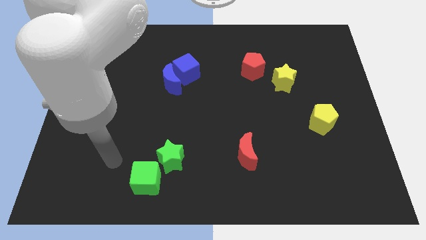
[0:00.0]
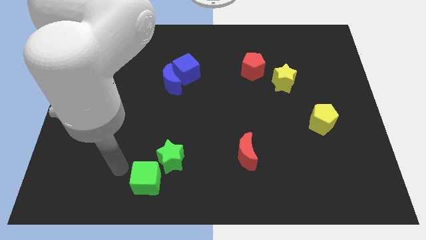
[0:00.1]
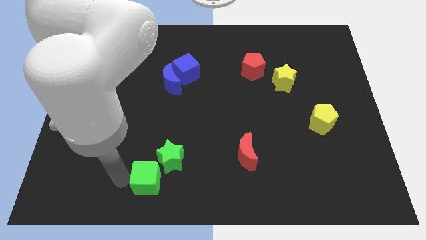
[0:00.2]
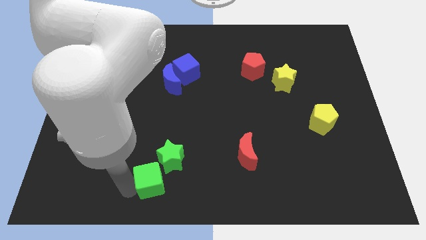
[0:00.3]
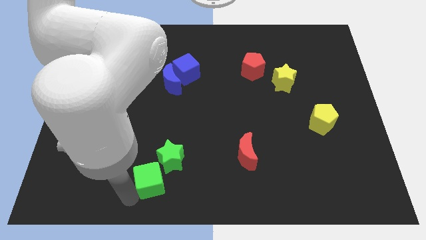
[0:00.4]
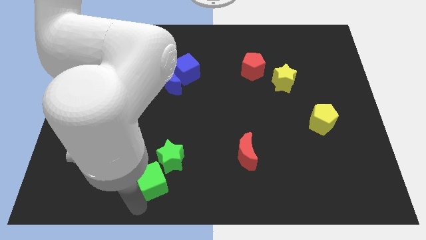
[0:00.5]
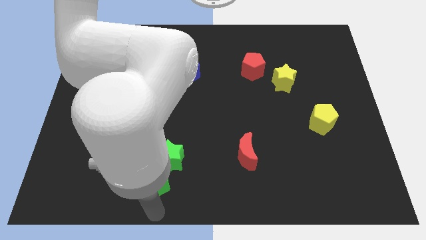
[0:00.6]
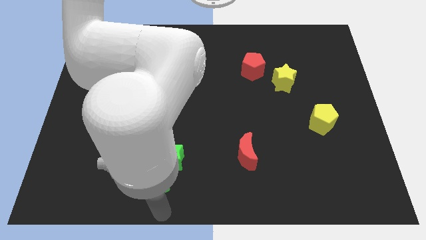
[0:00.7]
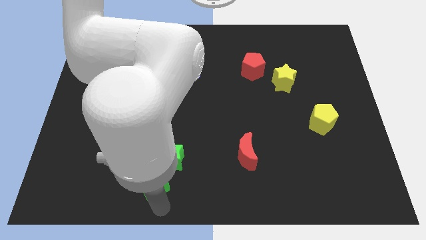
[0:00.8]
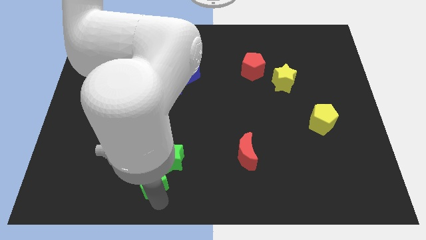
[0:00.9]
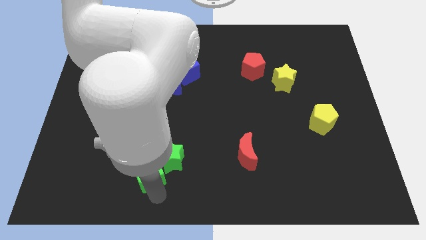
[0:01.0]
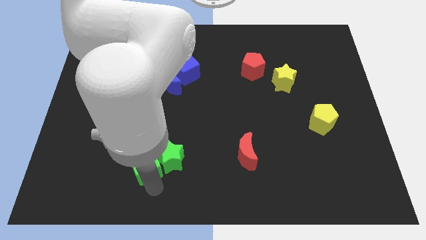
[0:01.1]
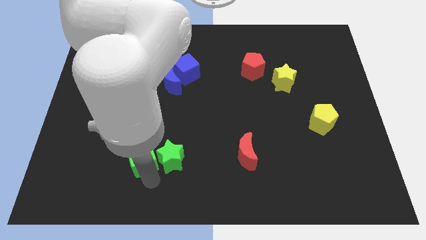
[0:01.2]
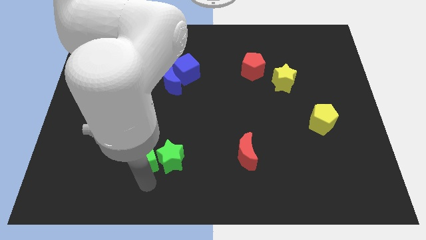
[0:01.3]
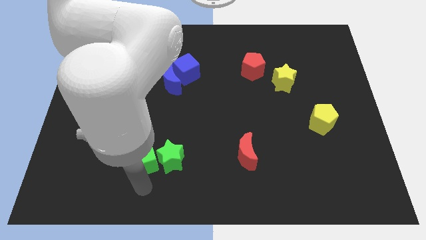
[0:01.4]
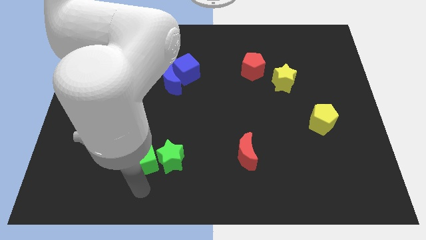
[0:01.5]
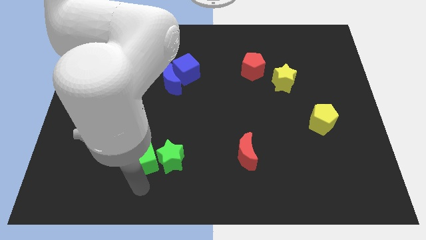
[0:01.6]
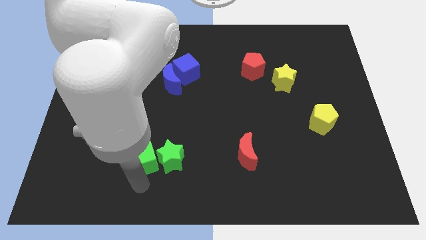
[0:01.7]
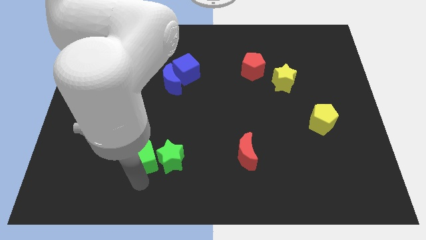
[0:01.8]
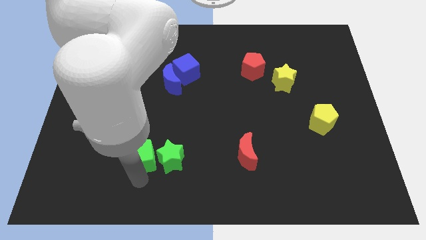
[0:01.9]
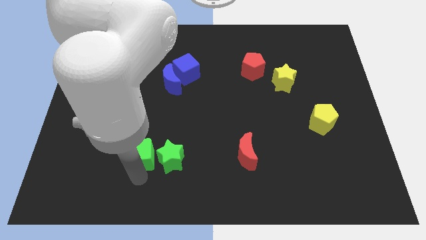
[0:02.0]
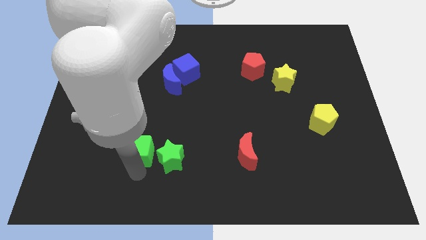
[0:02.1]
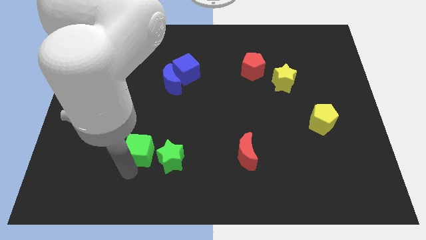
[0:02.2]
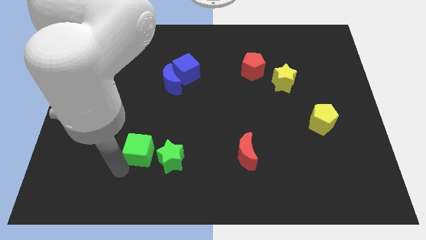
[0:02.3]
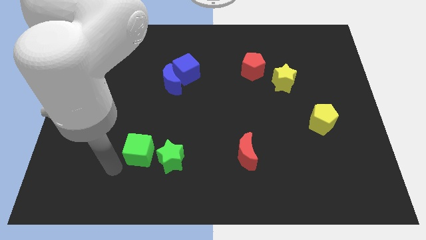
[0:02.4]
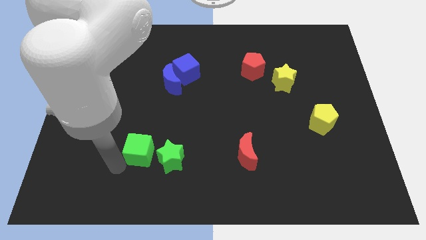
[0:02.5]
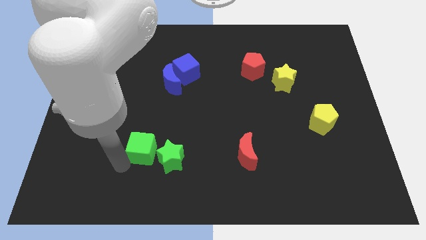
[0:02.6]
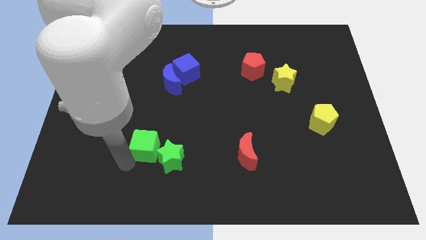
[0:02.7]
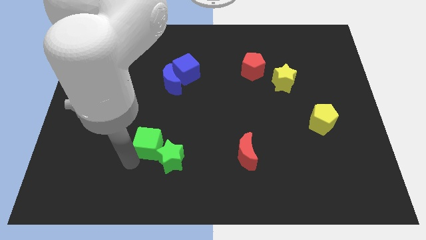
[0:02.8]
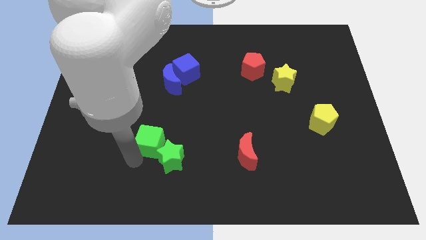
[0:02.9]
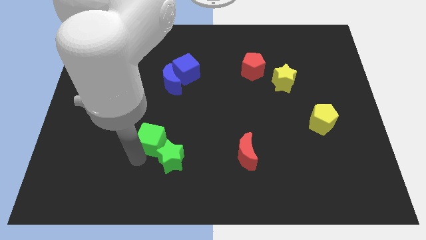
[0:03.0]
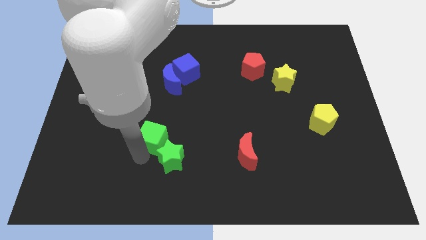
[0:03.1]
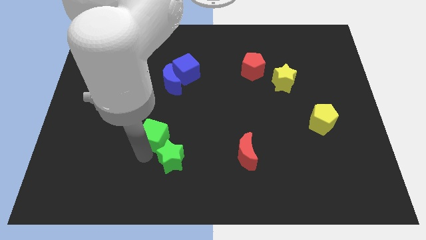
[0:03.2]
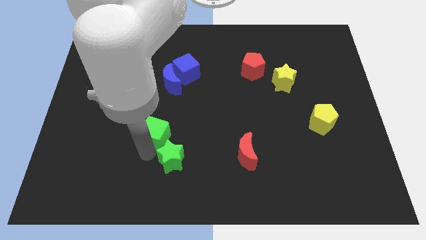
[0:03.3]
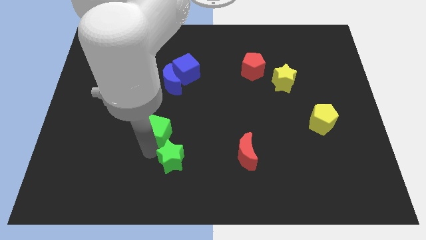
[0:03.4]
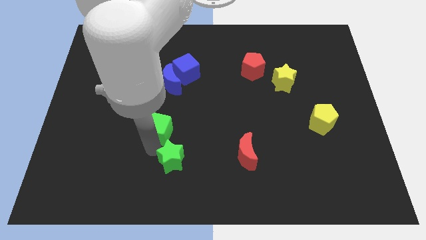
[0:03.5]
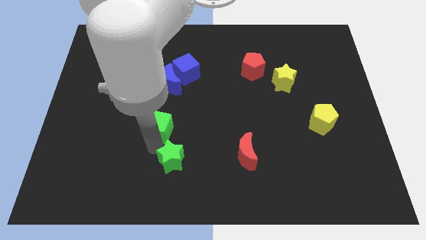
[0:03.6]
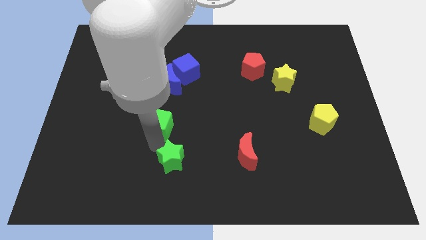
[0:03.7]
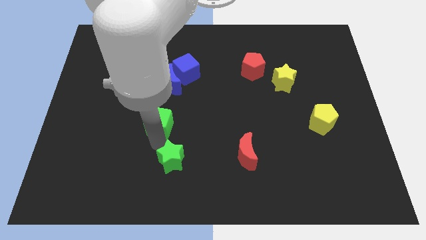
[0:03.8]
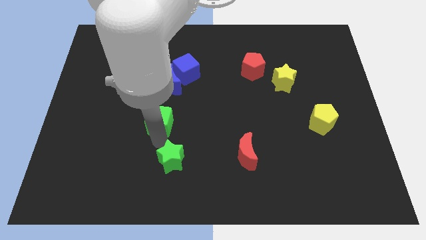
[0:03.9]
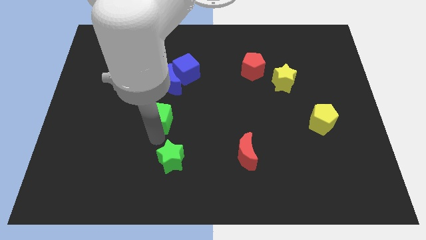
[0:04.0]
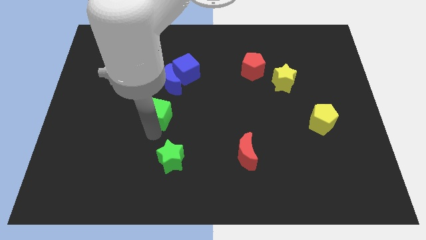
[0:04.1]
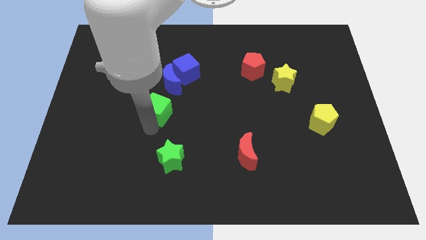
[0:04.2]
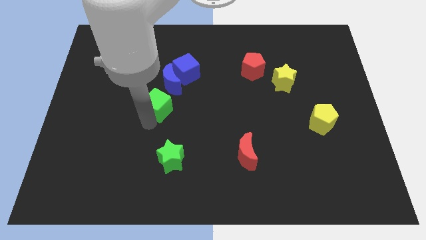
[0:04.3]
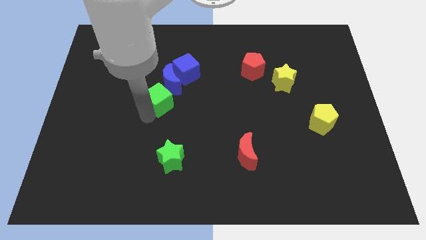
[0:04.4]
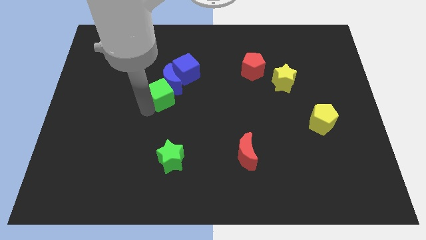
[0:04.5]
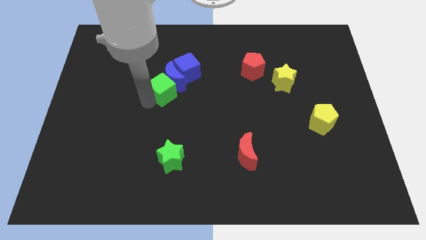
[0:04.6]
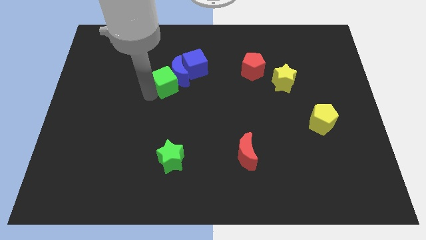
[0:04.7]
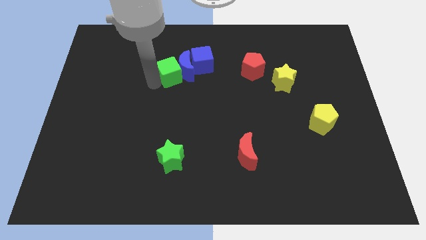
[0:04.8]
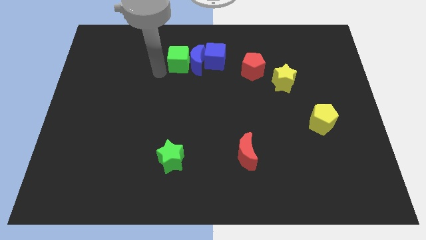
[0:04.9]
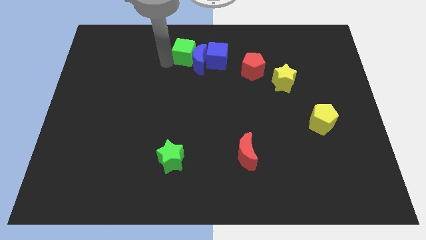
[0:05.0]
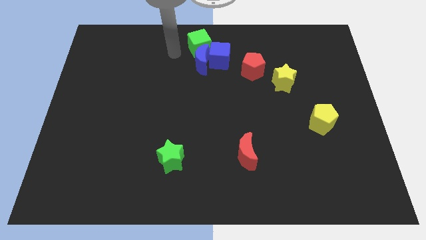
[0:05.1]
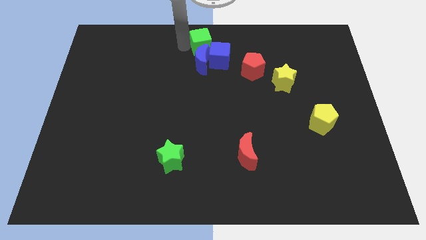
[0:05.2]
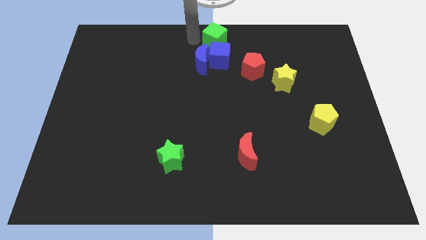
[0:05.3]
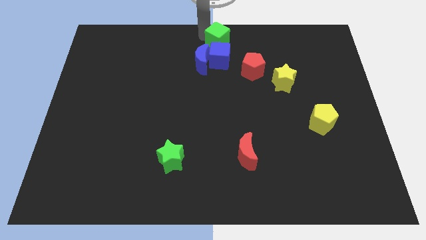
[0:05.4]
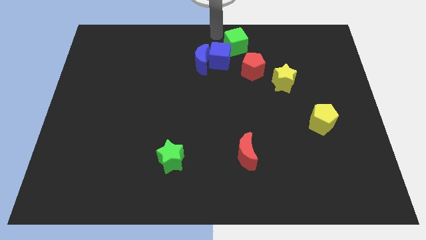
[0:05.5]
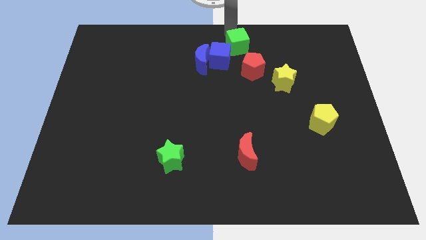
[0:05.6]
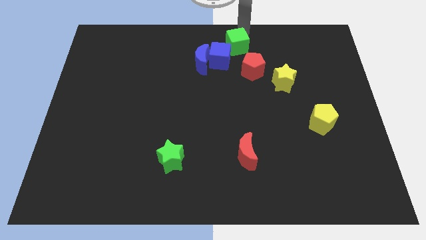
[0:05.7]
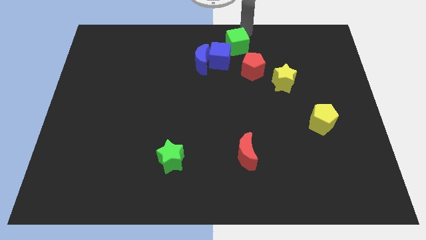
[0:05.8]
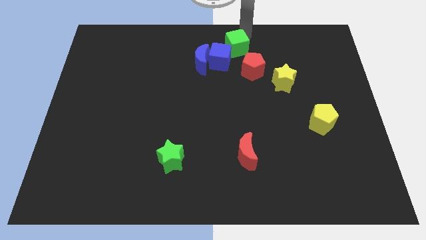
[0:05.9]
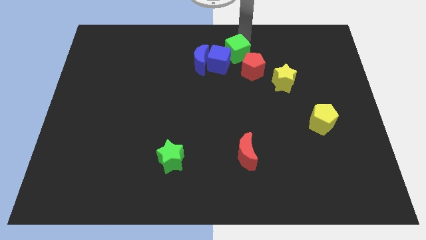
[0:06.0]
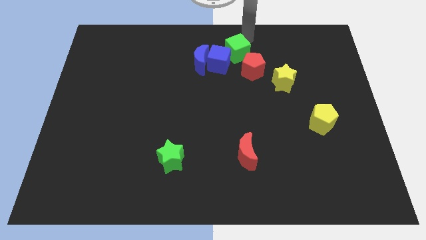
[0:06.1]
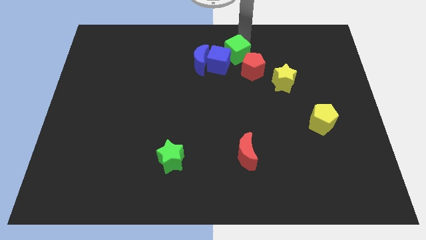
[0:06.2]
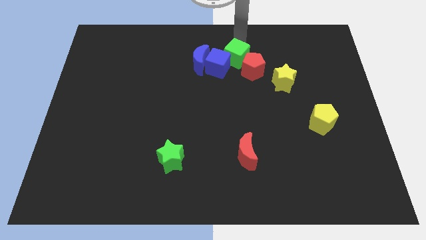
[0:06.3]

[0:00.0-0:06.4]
slide the green cube next to the red pentagon
